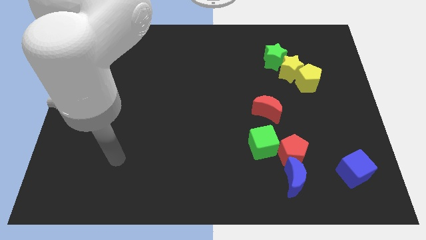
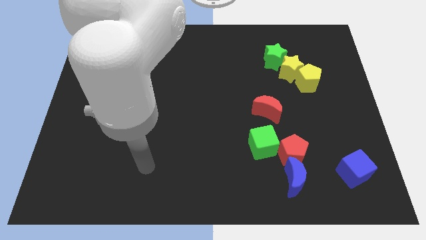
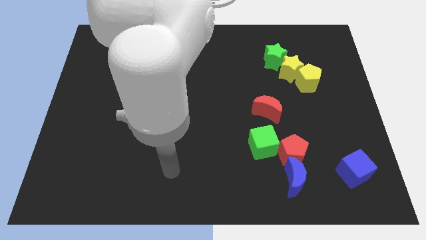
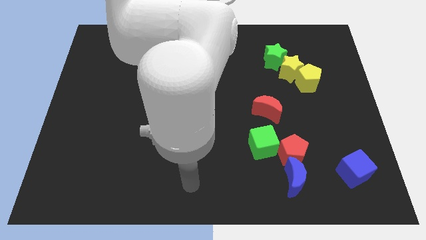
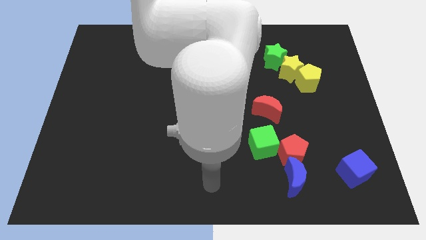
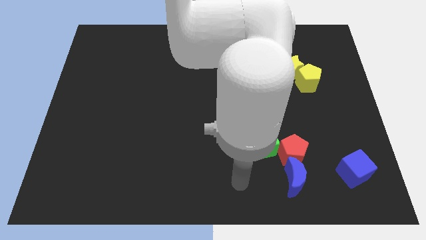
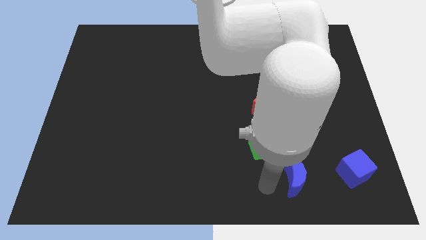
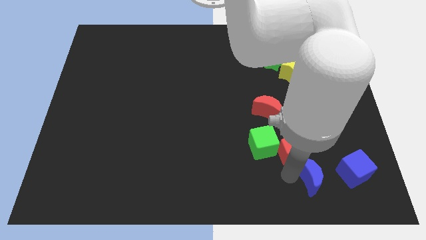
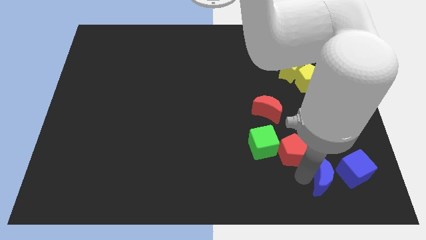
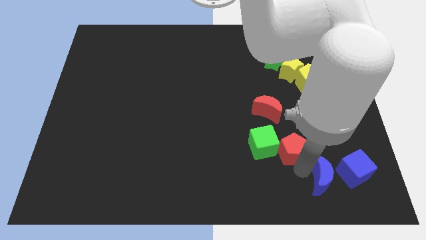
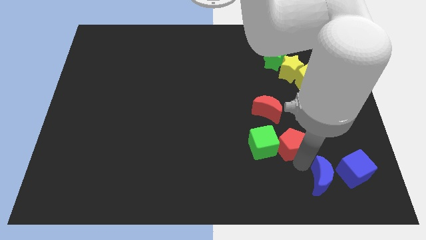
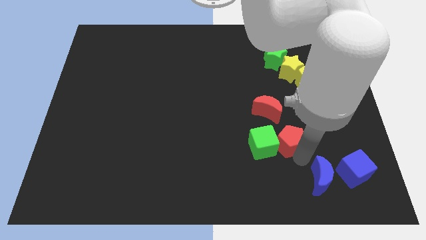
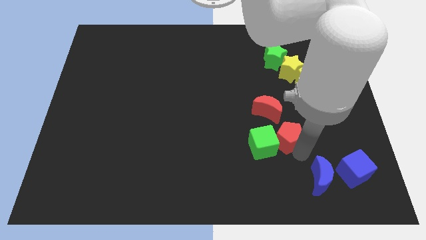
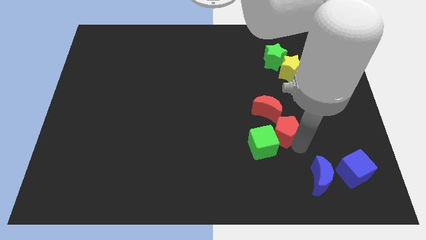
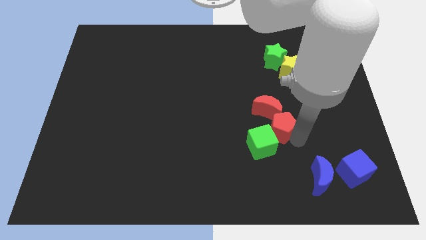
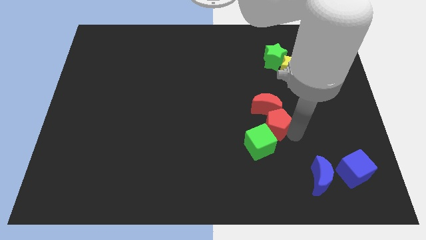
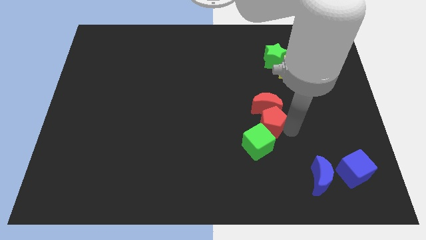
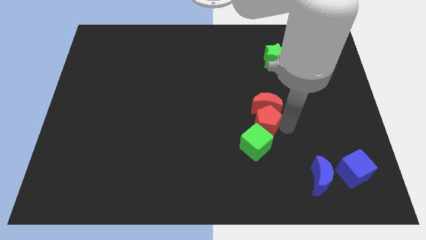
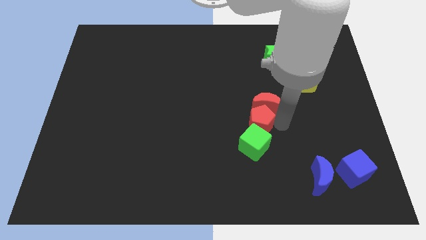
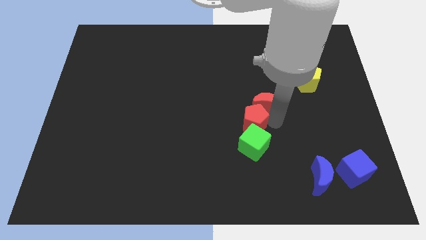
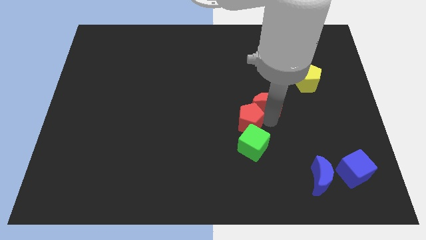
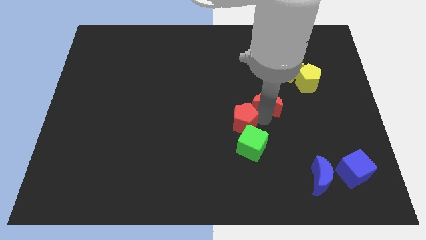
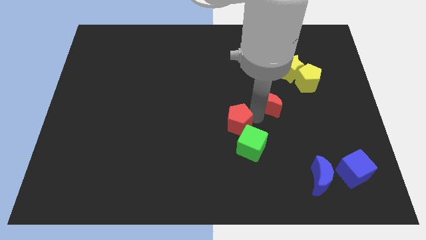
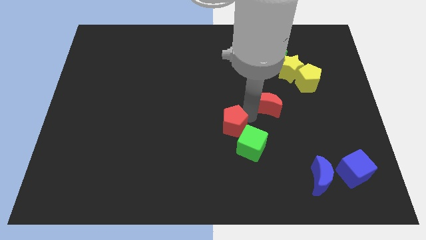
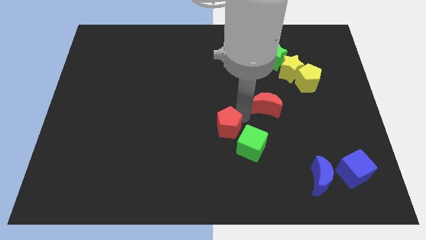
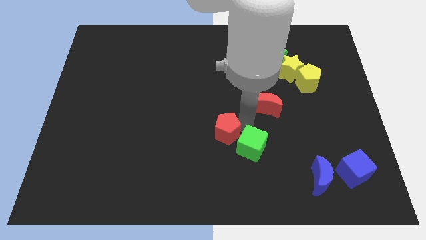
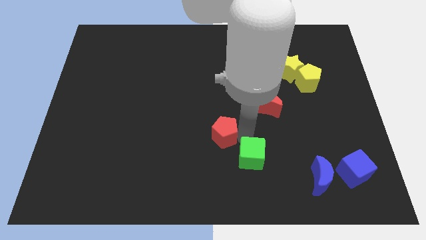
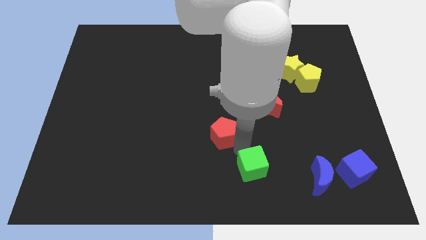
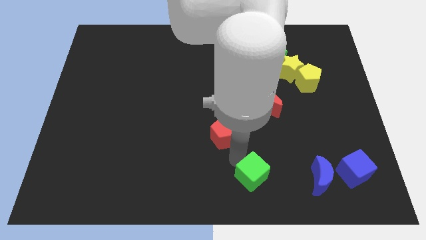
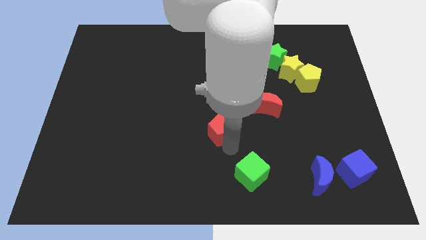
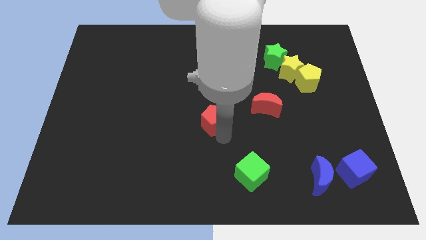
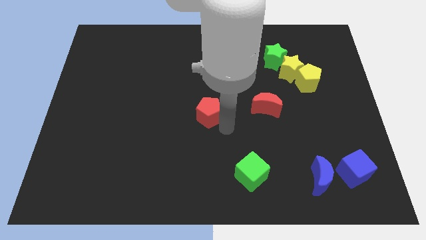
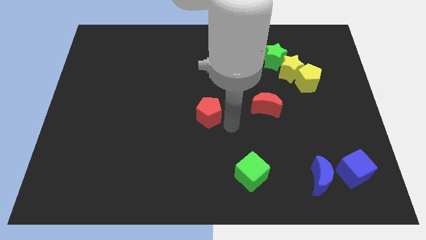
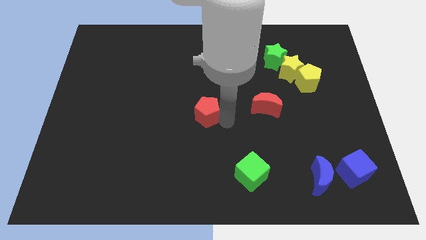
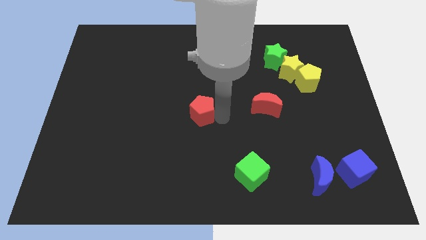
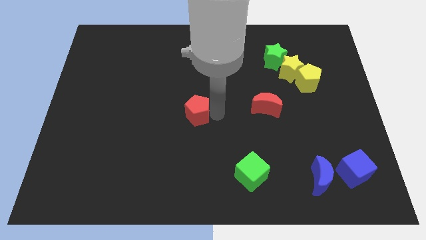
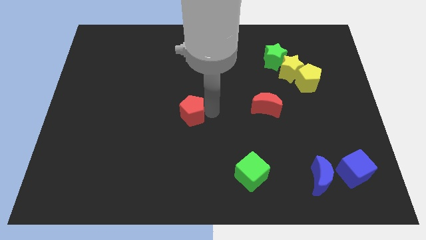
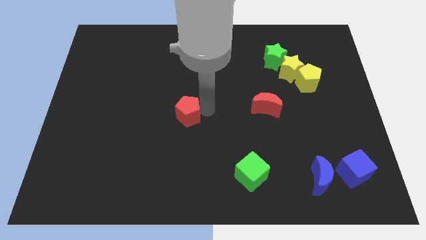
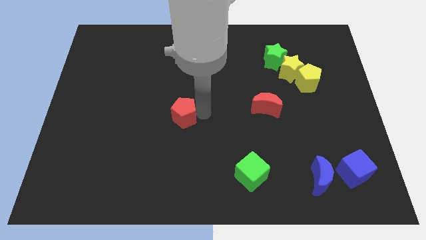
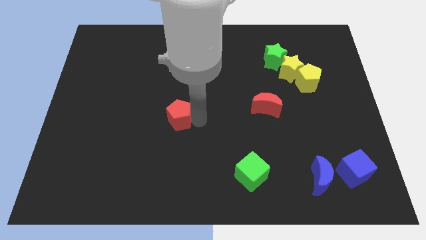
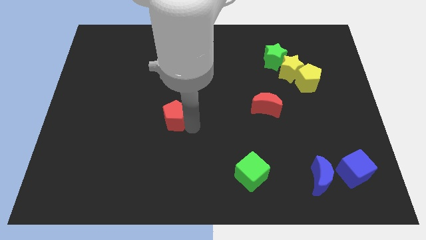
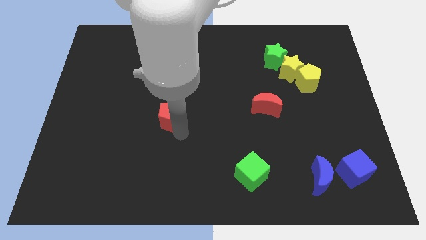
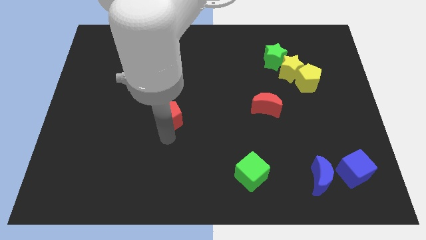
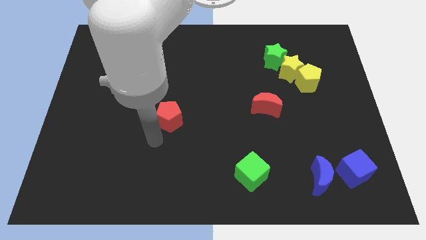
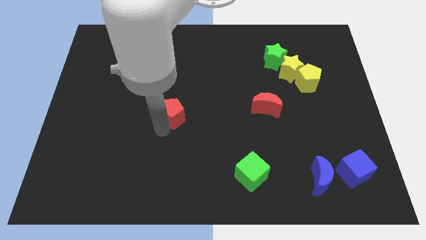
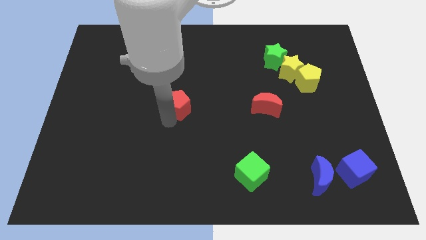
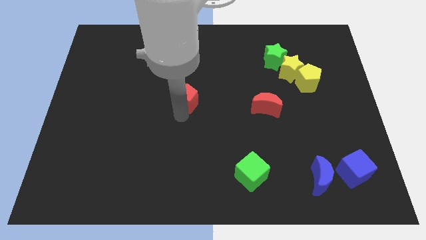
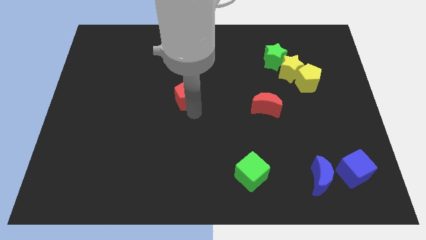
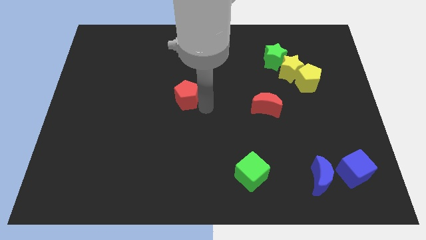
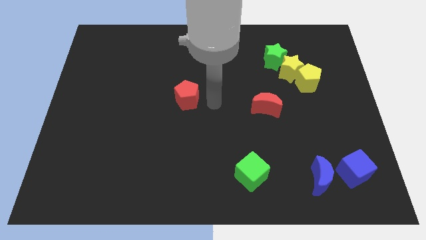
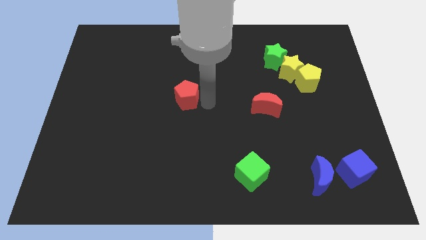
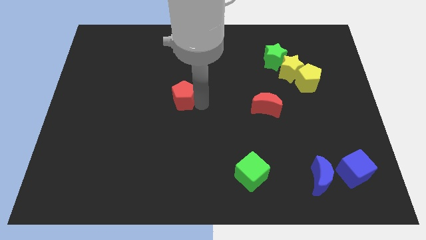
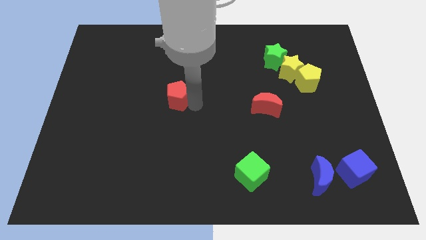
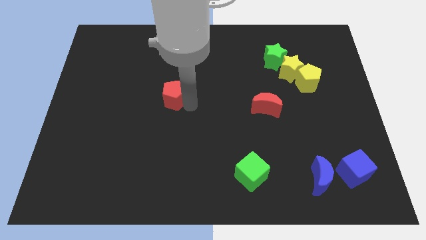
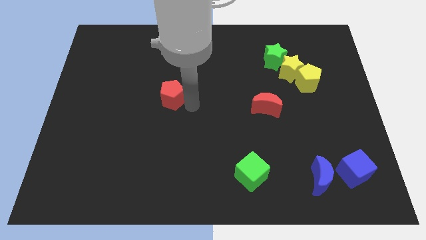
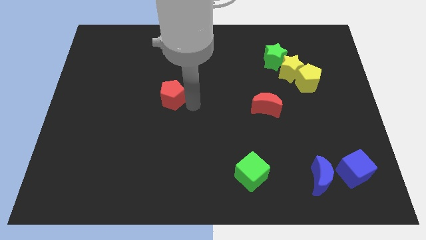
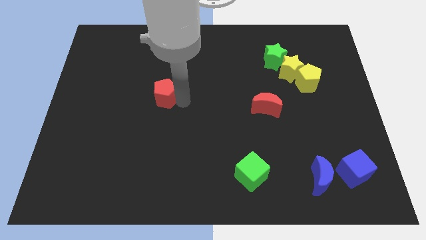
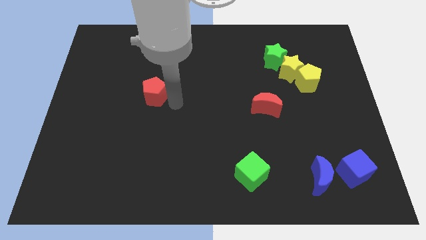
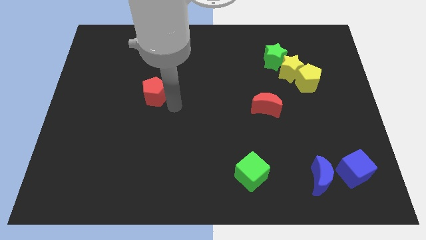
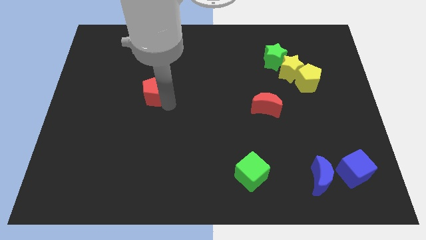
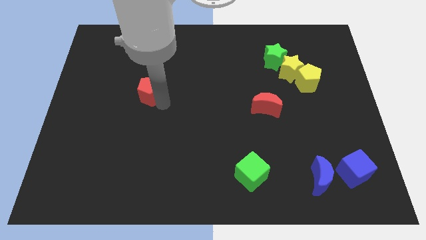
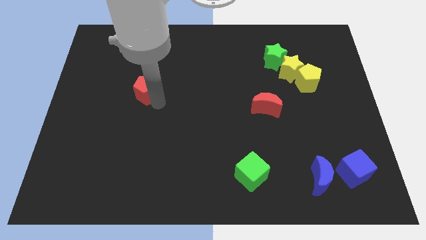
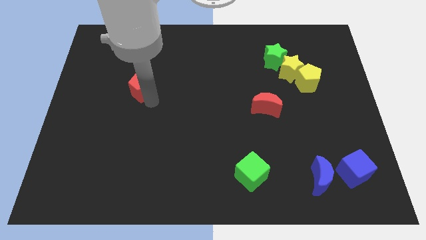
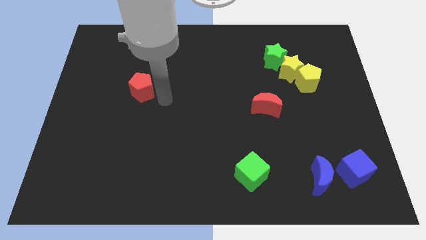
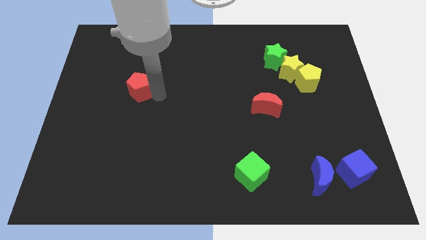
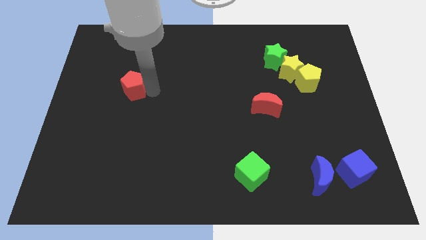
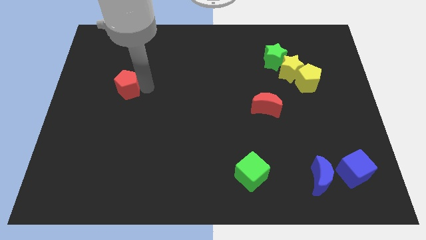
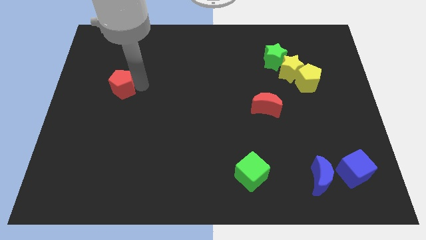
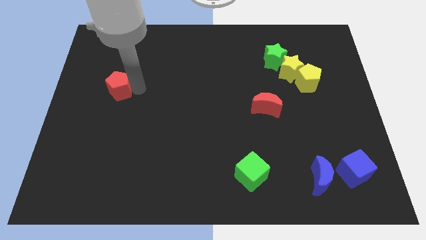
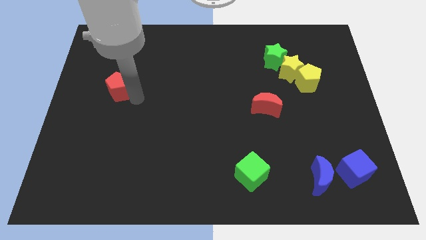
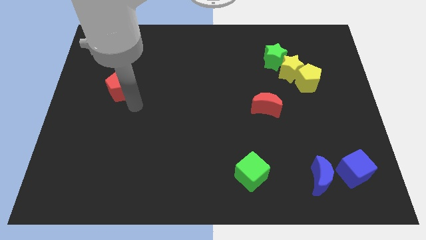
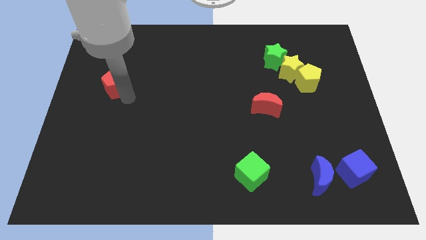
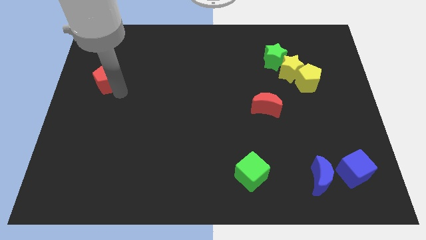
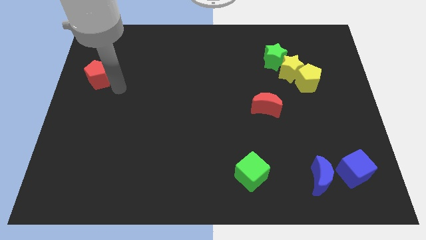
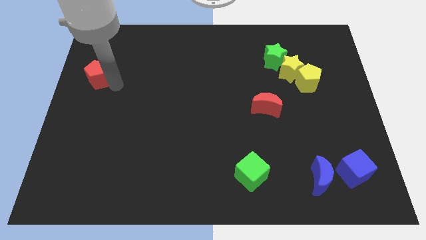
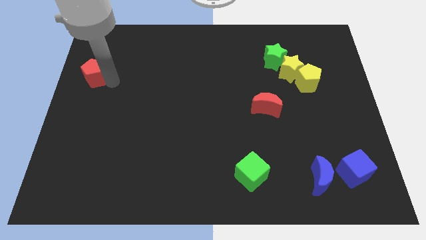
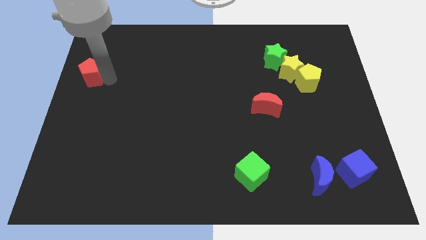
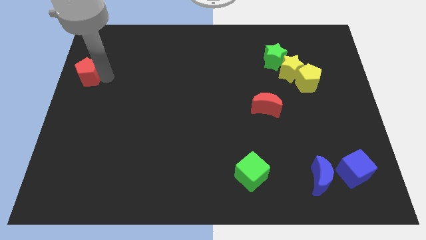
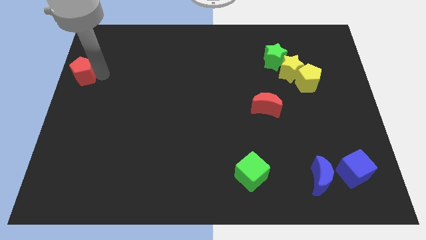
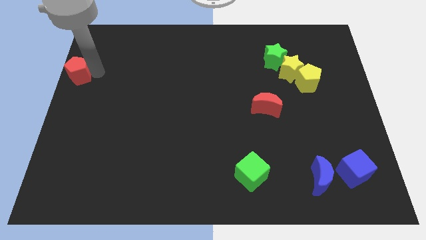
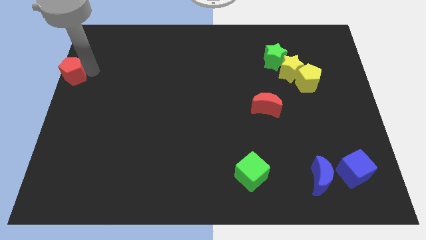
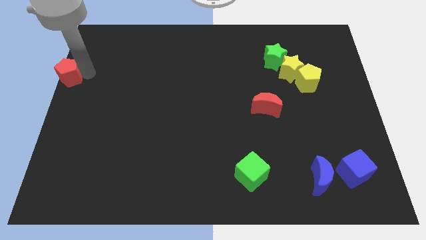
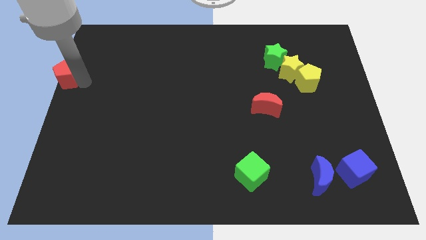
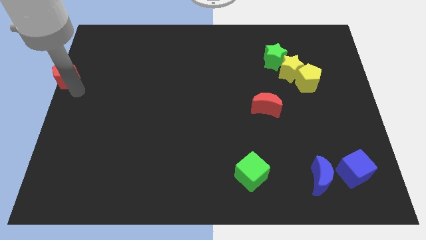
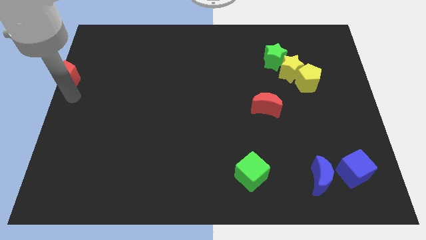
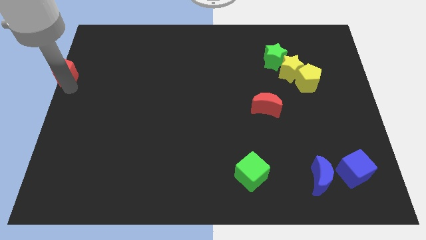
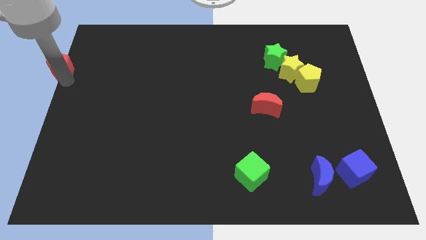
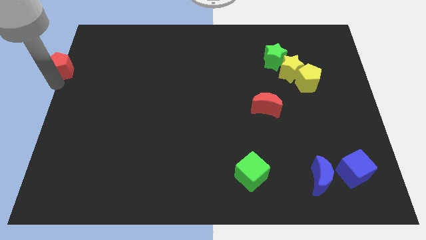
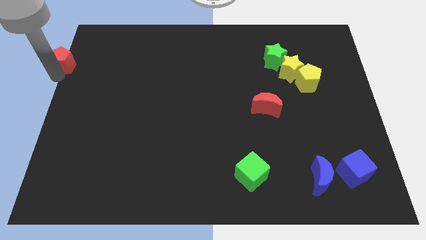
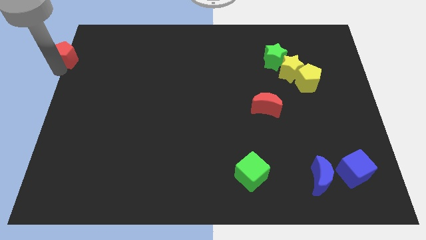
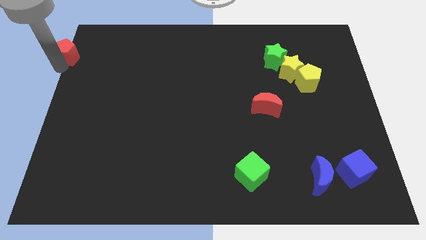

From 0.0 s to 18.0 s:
push the red pentagon to the top left corner
